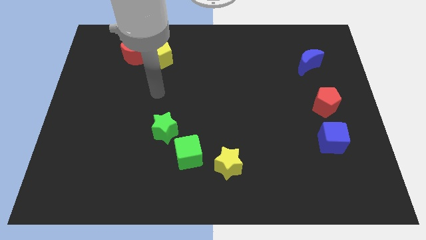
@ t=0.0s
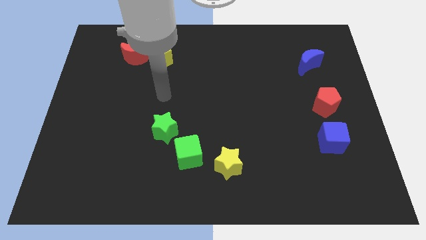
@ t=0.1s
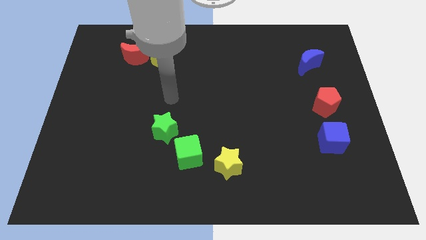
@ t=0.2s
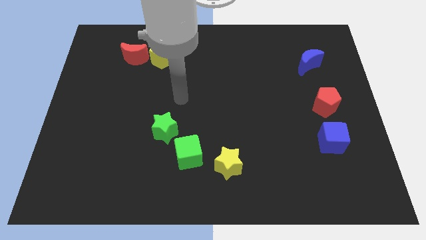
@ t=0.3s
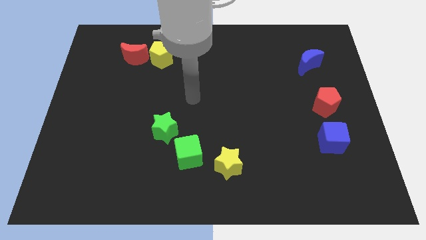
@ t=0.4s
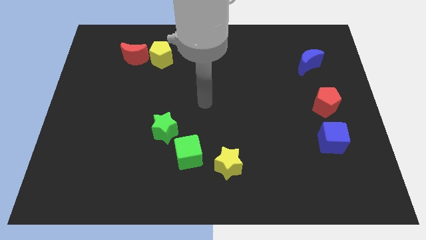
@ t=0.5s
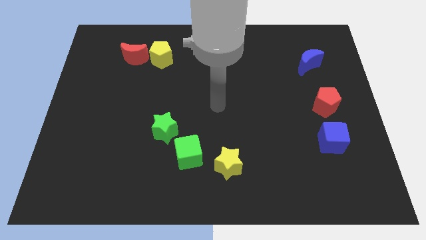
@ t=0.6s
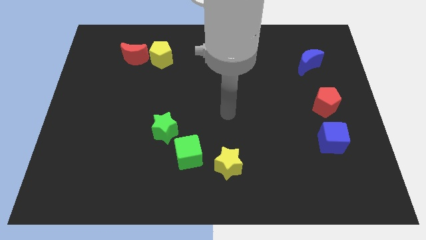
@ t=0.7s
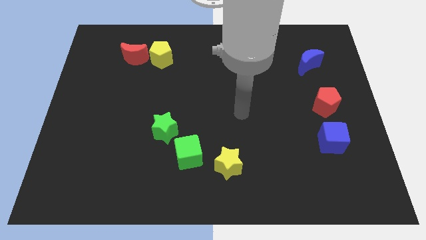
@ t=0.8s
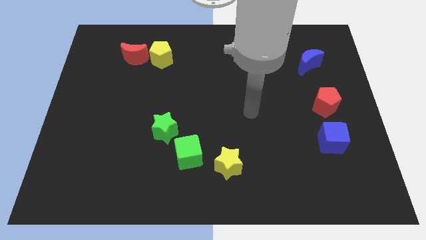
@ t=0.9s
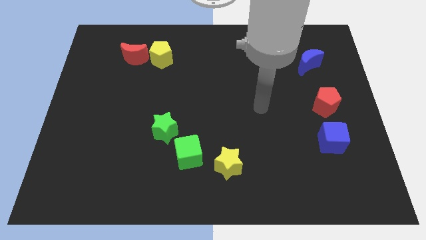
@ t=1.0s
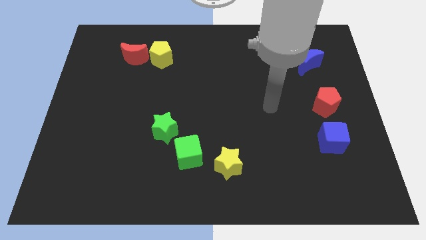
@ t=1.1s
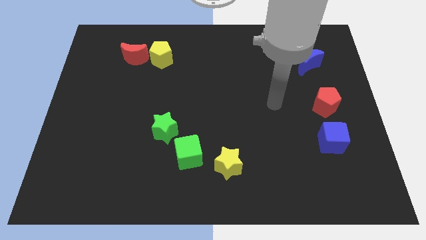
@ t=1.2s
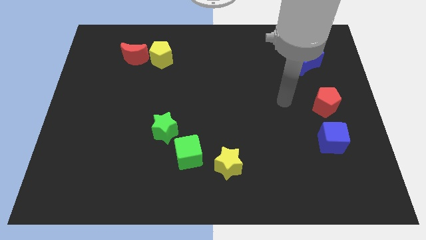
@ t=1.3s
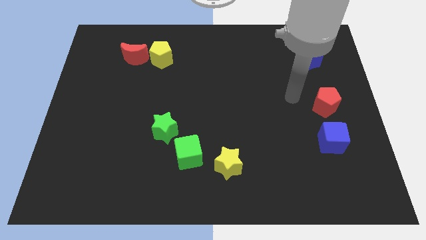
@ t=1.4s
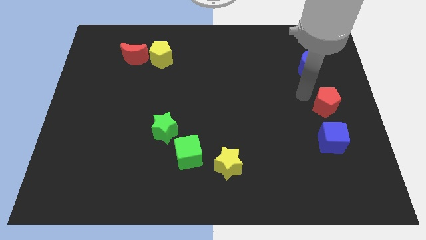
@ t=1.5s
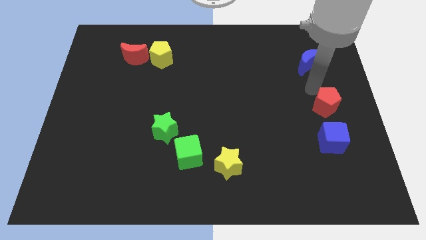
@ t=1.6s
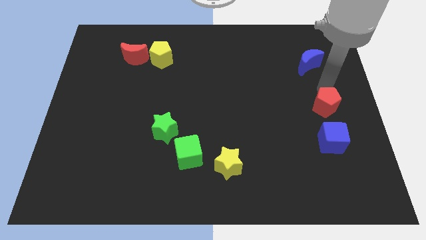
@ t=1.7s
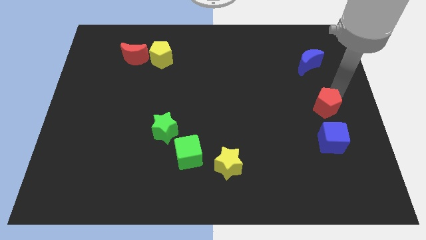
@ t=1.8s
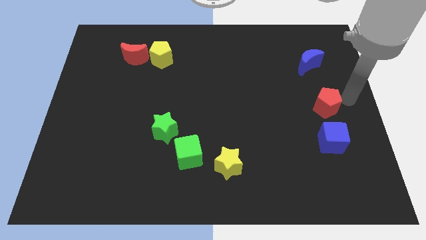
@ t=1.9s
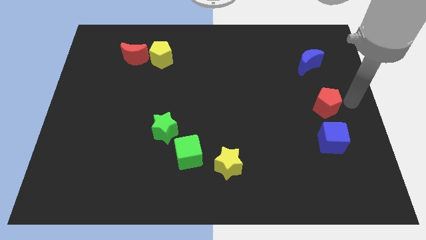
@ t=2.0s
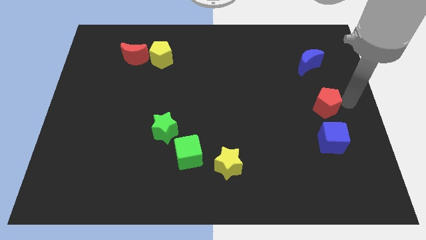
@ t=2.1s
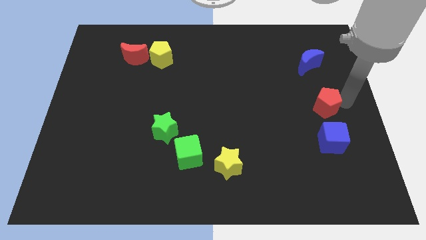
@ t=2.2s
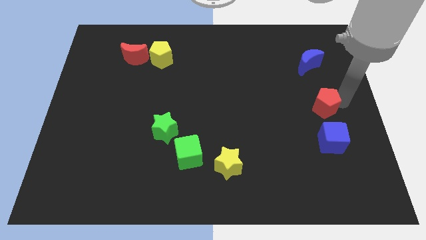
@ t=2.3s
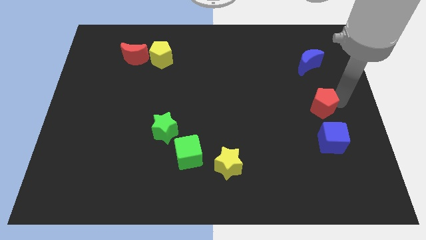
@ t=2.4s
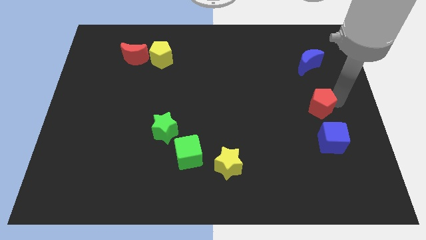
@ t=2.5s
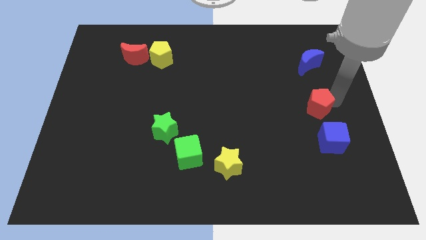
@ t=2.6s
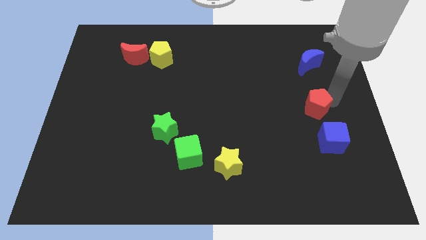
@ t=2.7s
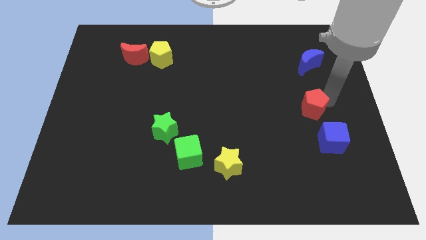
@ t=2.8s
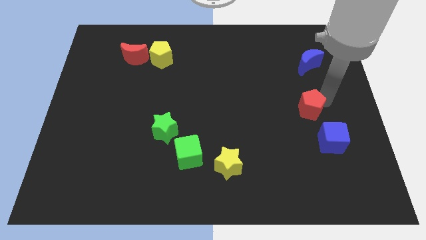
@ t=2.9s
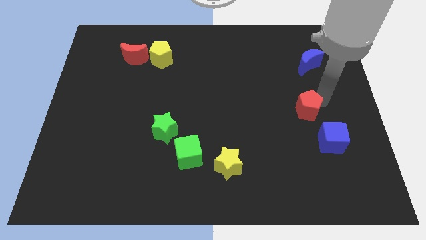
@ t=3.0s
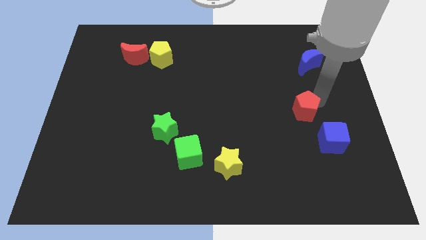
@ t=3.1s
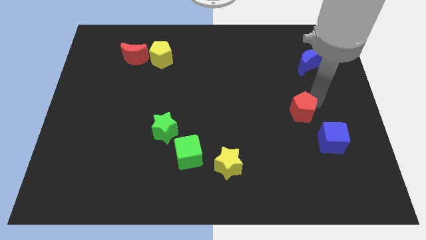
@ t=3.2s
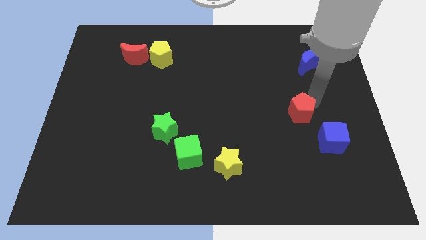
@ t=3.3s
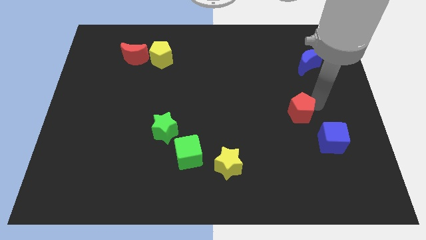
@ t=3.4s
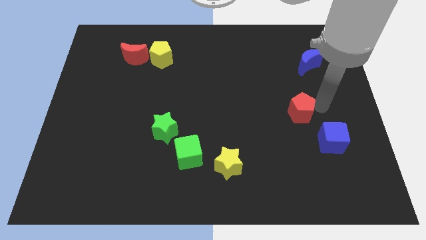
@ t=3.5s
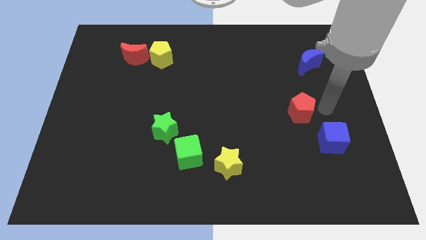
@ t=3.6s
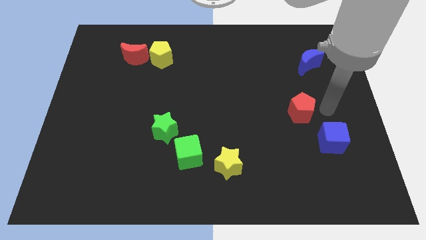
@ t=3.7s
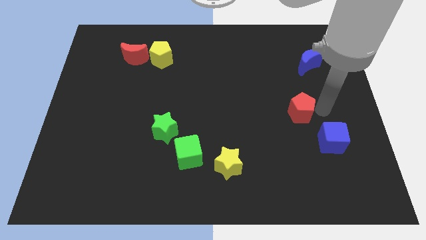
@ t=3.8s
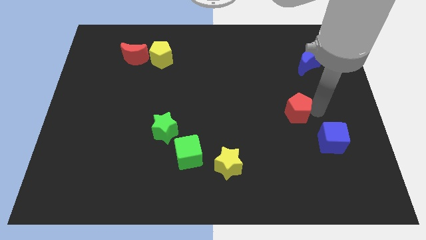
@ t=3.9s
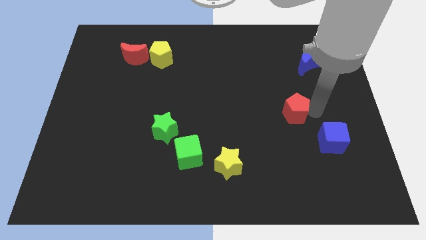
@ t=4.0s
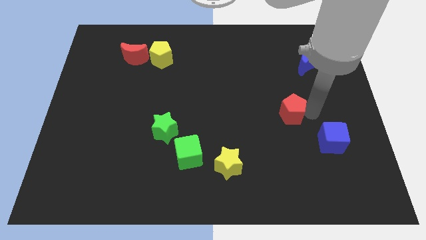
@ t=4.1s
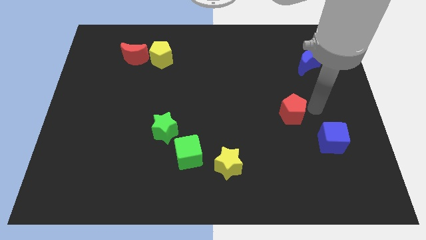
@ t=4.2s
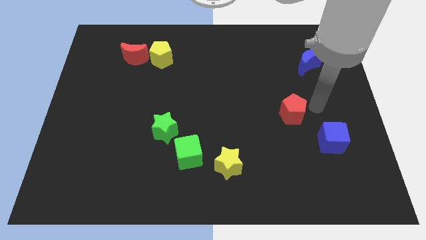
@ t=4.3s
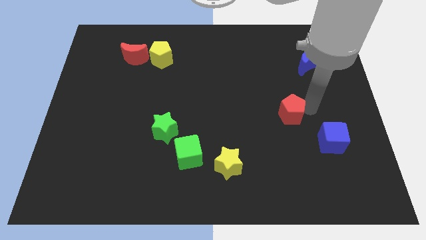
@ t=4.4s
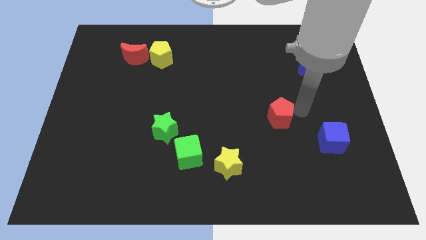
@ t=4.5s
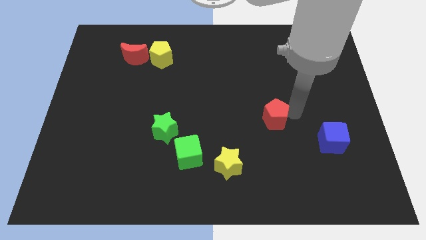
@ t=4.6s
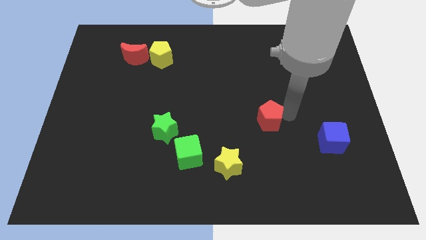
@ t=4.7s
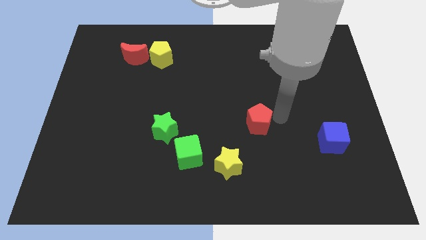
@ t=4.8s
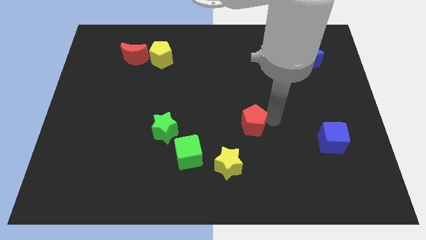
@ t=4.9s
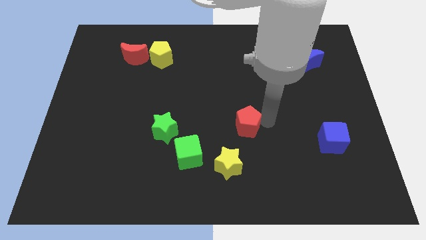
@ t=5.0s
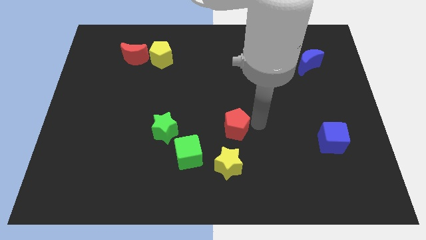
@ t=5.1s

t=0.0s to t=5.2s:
push the red pentagon right of the green star
